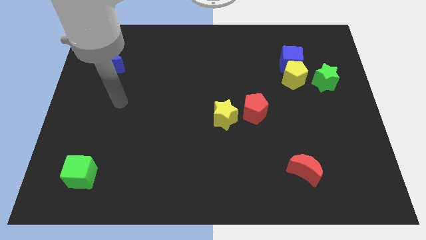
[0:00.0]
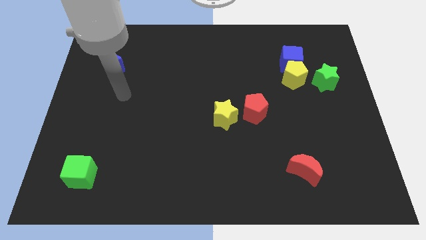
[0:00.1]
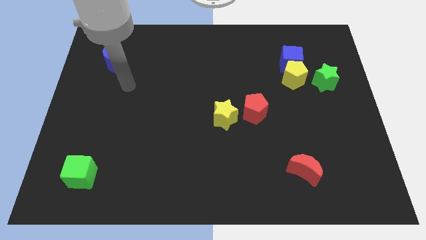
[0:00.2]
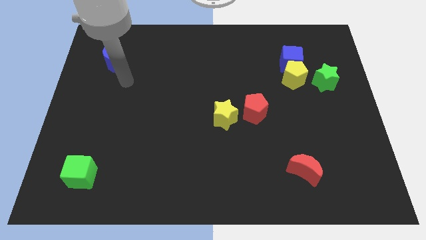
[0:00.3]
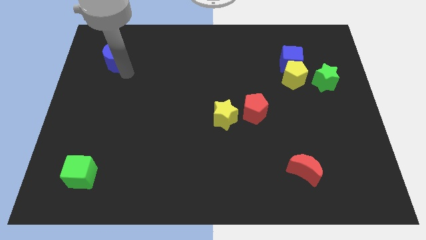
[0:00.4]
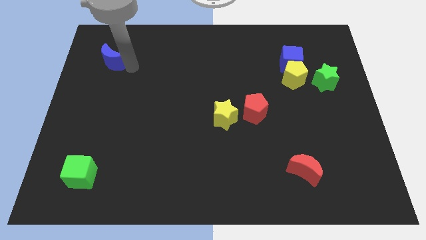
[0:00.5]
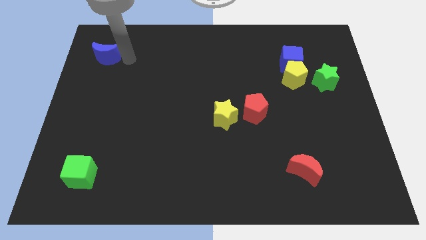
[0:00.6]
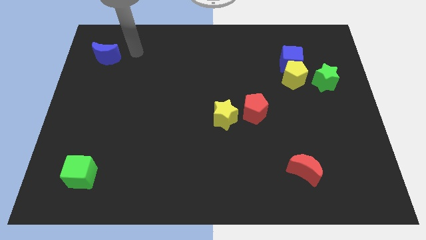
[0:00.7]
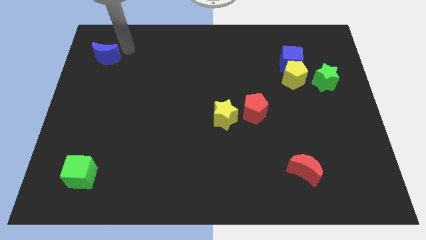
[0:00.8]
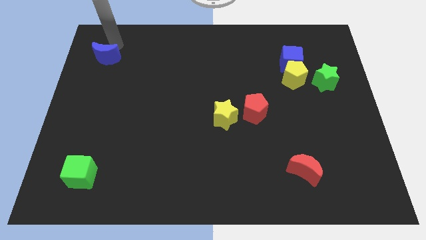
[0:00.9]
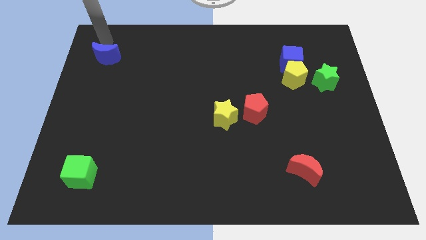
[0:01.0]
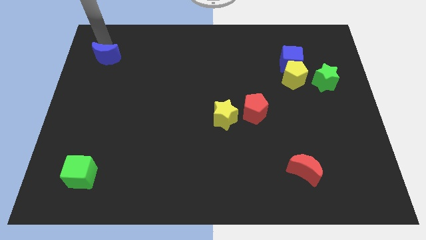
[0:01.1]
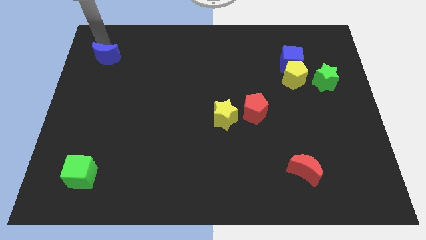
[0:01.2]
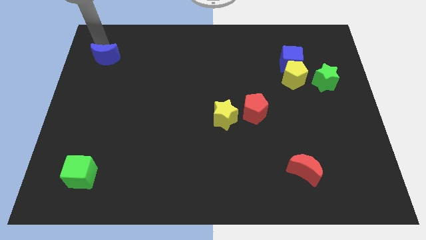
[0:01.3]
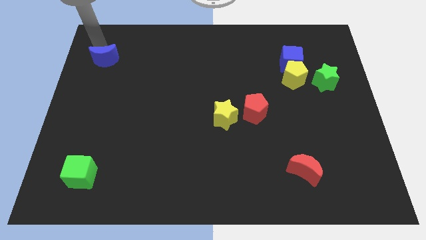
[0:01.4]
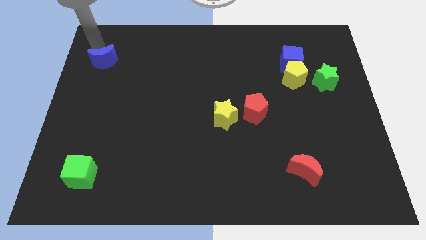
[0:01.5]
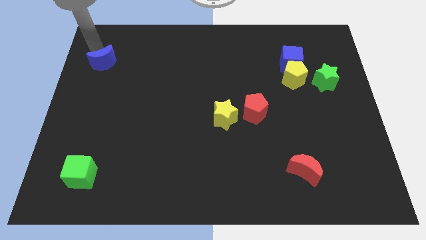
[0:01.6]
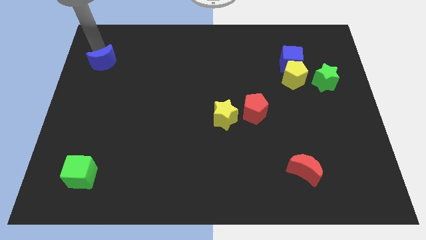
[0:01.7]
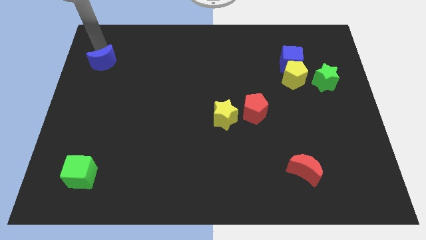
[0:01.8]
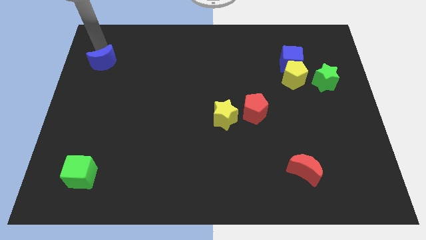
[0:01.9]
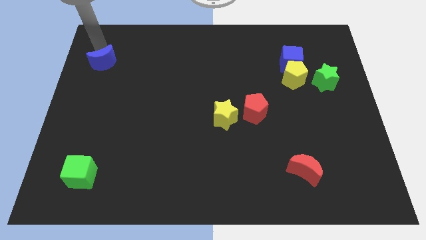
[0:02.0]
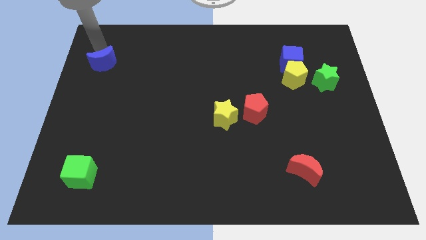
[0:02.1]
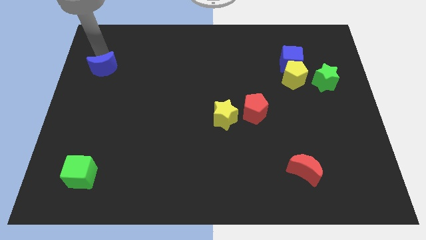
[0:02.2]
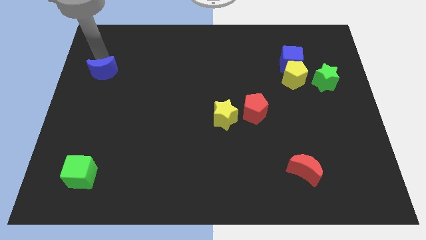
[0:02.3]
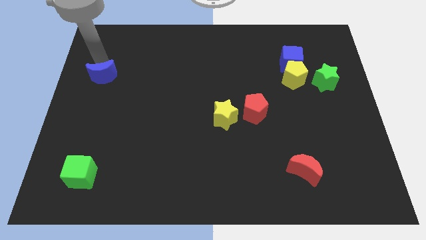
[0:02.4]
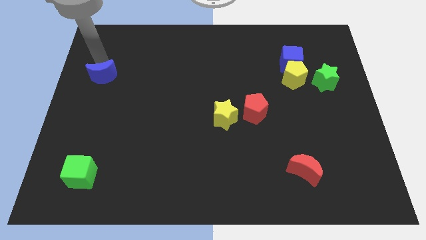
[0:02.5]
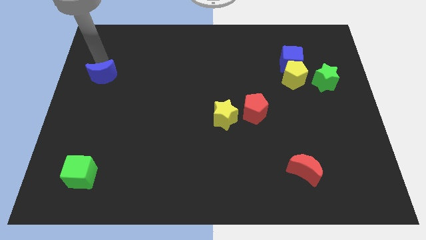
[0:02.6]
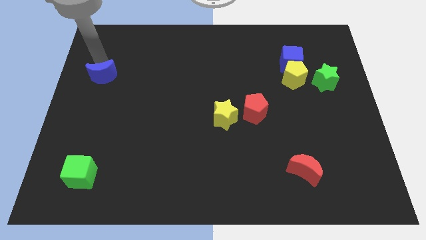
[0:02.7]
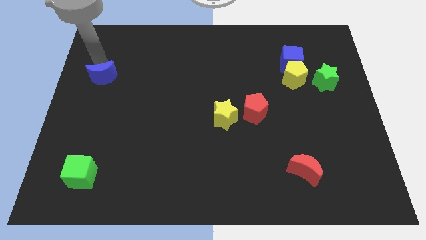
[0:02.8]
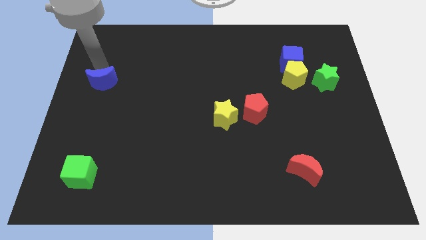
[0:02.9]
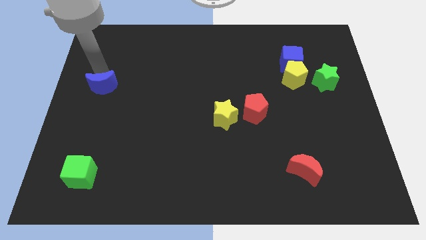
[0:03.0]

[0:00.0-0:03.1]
move the blue moon downwards a little

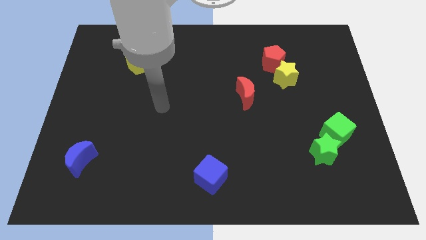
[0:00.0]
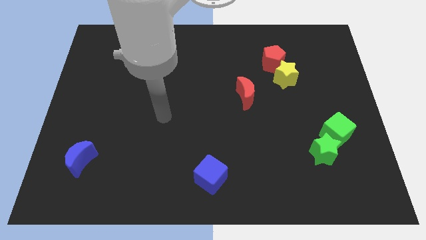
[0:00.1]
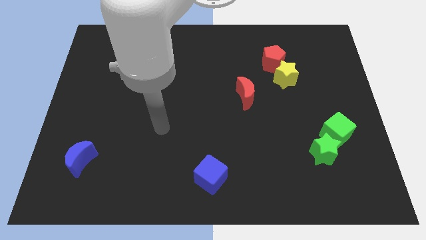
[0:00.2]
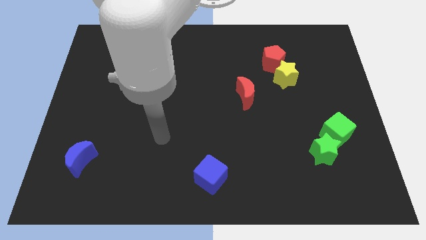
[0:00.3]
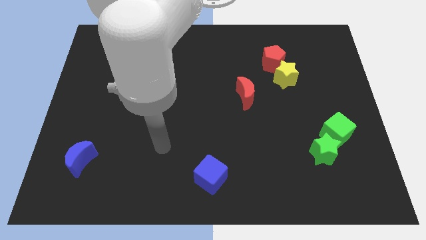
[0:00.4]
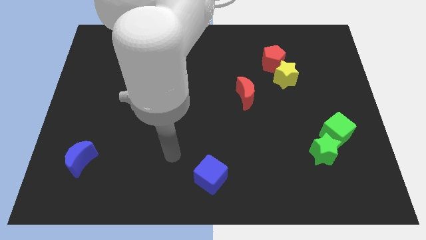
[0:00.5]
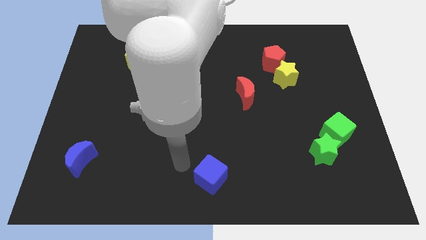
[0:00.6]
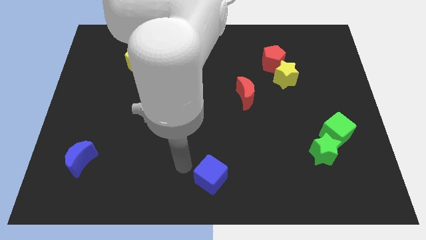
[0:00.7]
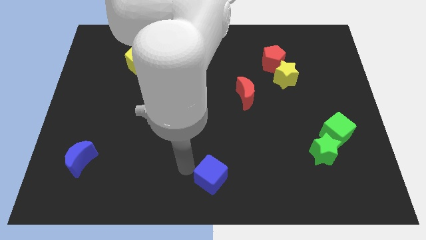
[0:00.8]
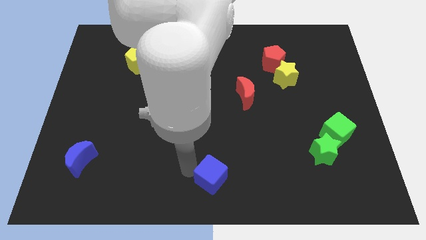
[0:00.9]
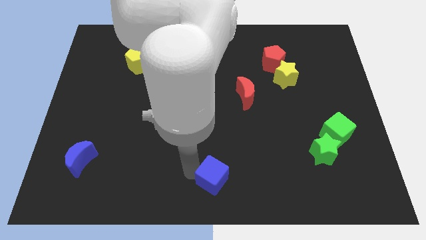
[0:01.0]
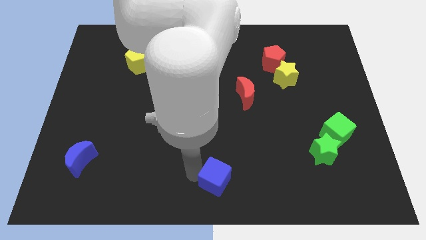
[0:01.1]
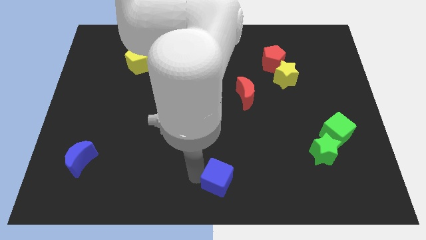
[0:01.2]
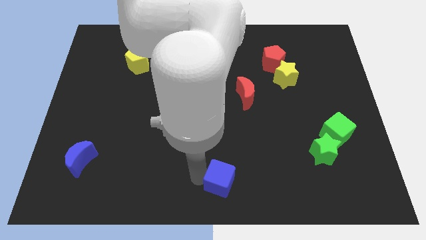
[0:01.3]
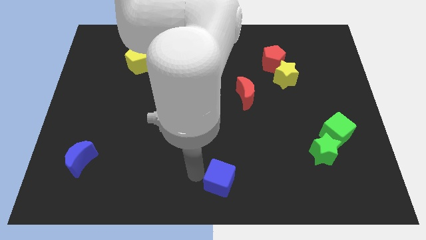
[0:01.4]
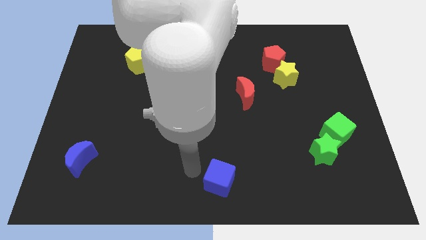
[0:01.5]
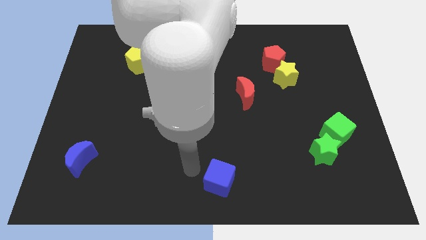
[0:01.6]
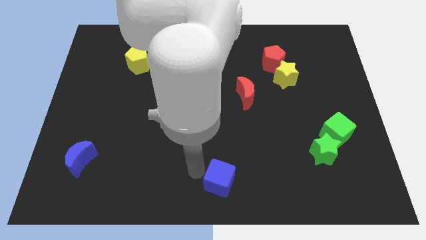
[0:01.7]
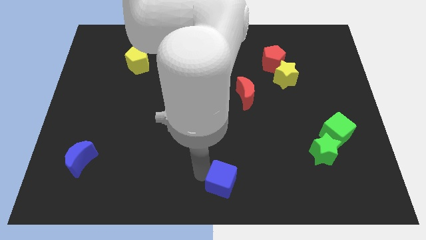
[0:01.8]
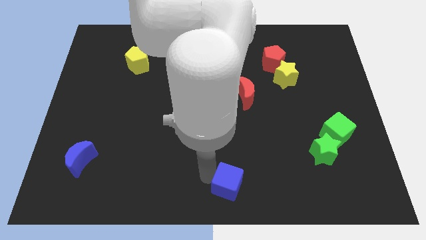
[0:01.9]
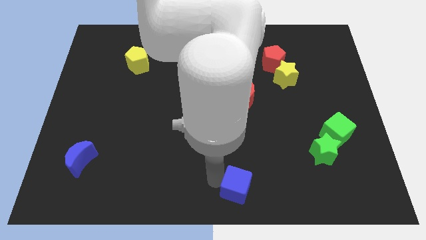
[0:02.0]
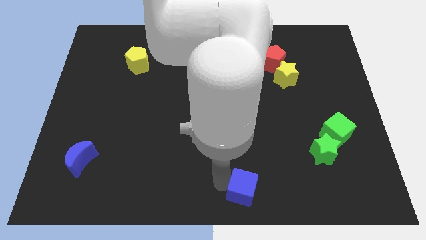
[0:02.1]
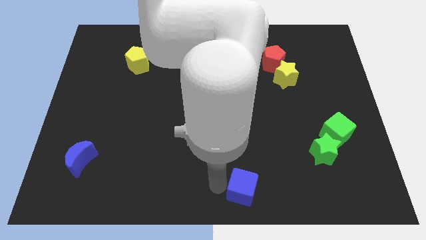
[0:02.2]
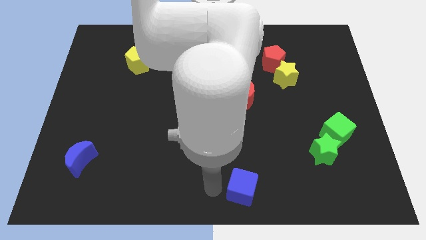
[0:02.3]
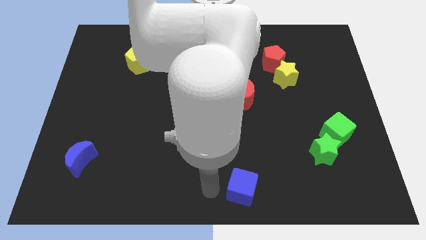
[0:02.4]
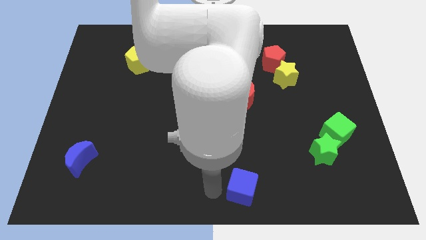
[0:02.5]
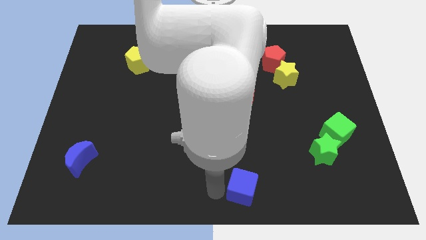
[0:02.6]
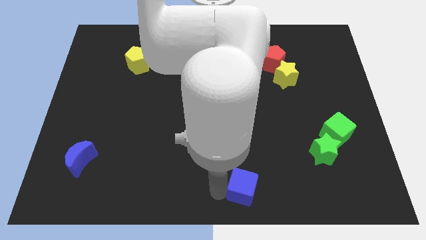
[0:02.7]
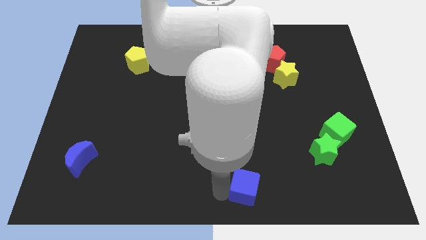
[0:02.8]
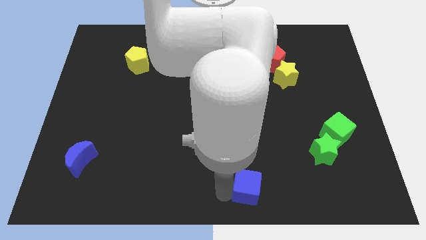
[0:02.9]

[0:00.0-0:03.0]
slightly push the blue cube right

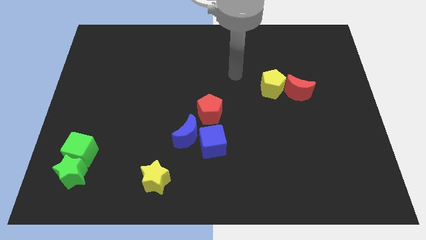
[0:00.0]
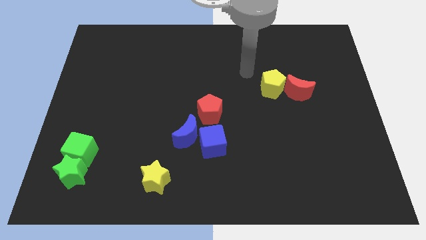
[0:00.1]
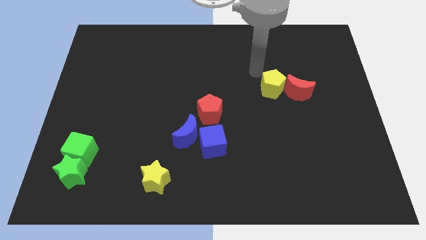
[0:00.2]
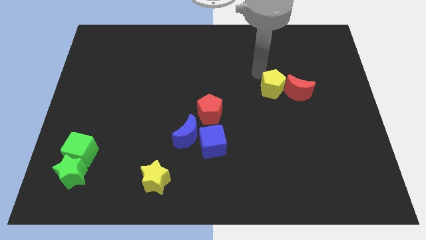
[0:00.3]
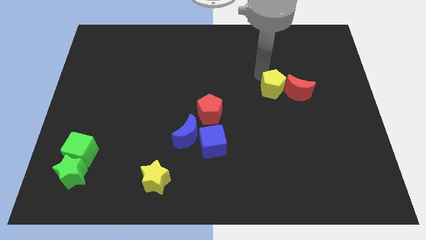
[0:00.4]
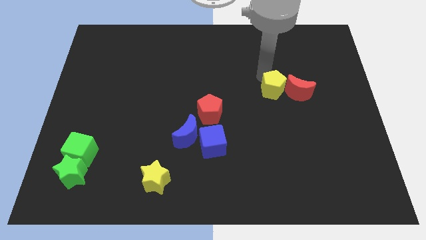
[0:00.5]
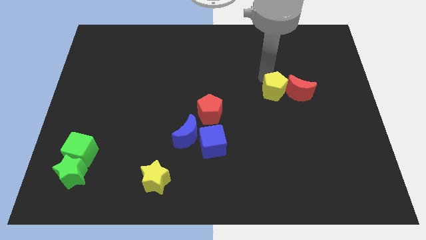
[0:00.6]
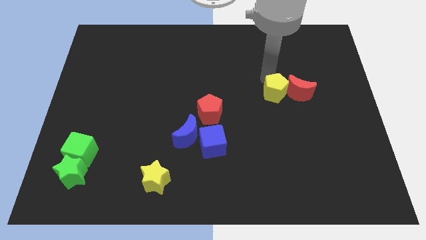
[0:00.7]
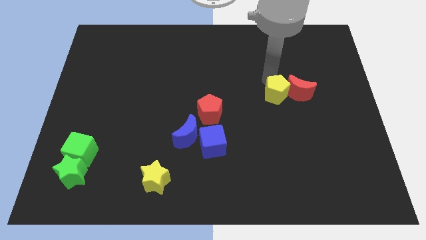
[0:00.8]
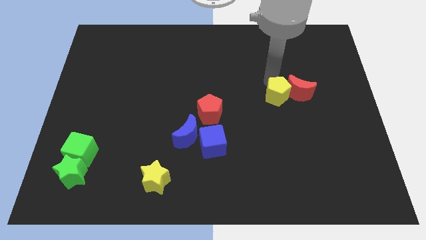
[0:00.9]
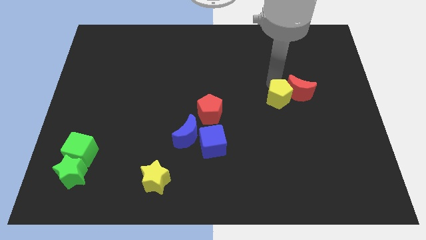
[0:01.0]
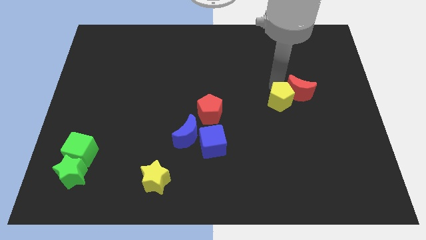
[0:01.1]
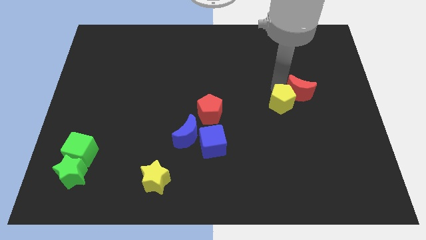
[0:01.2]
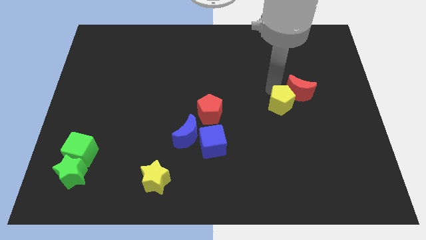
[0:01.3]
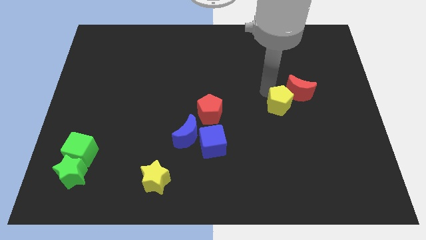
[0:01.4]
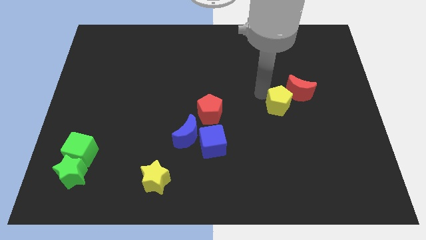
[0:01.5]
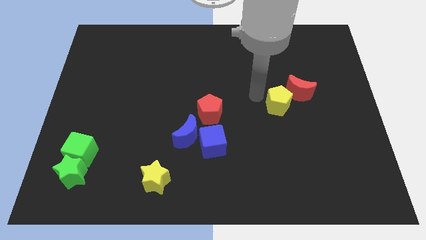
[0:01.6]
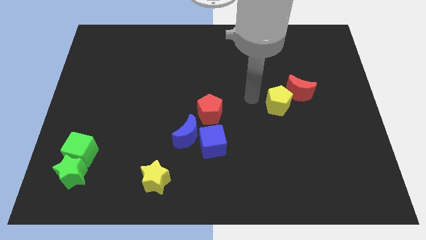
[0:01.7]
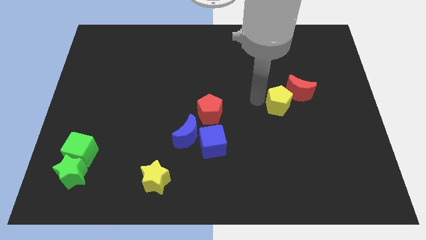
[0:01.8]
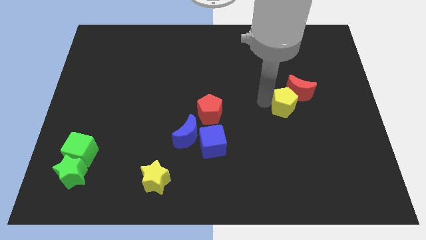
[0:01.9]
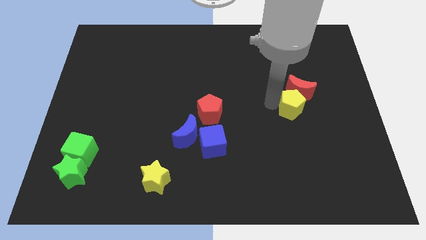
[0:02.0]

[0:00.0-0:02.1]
slide the yellow pentagon diagonally down and to the right a bit
